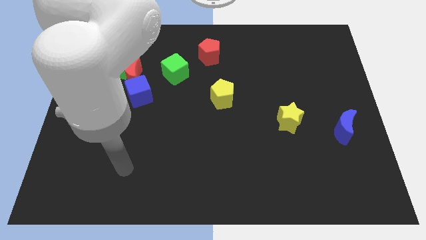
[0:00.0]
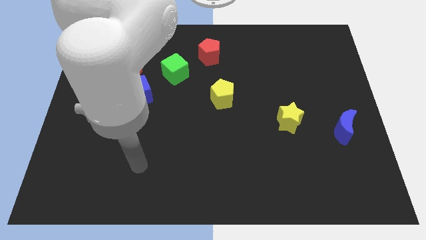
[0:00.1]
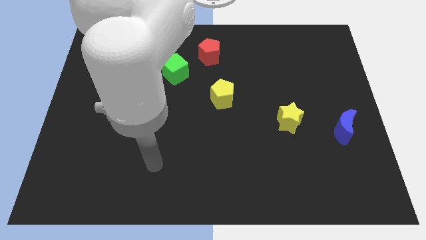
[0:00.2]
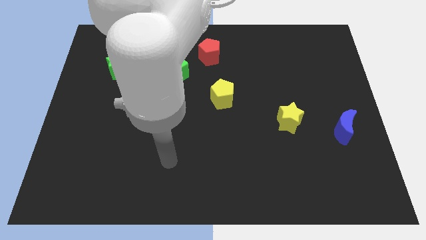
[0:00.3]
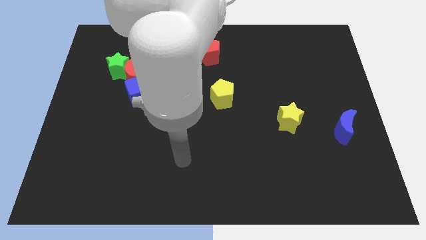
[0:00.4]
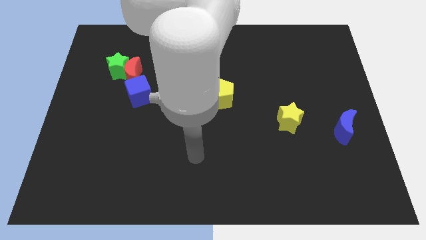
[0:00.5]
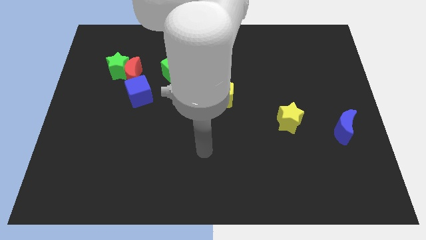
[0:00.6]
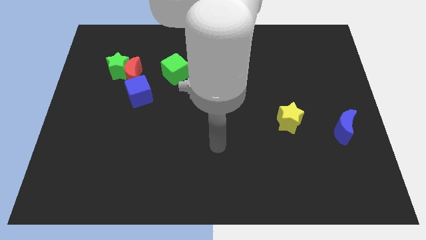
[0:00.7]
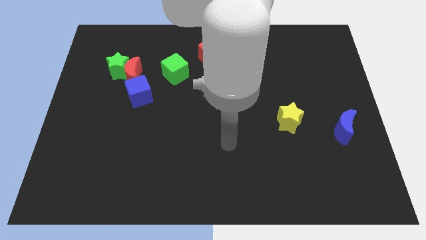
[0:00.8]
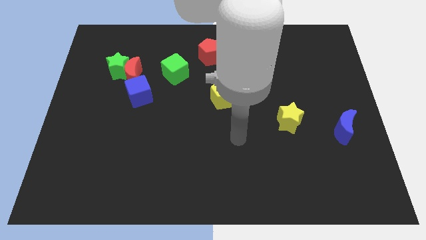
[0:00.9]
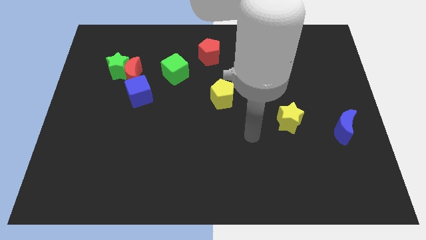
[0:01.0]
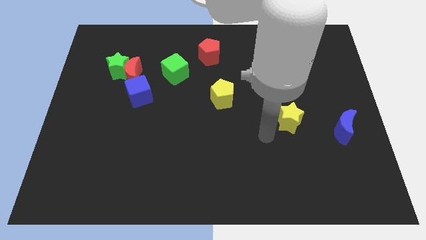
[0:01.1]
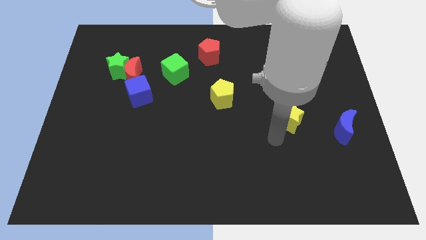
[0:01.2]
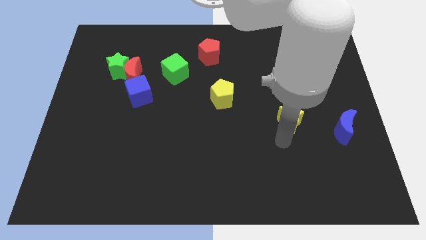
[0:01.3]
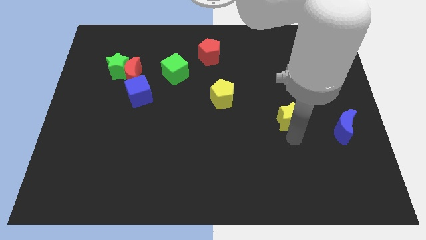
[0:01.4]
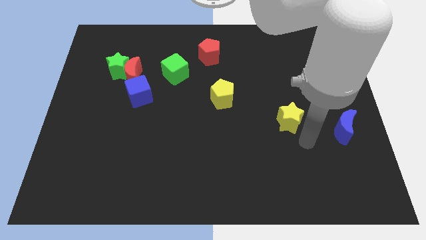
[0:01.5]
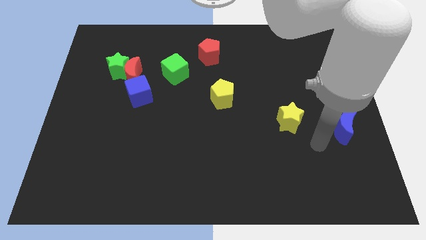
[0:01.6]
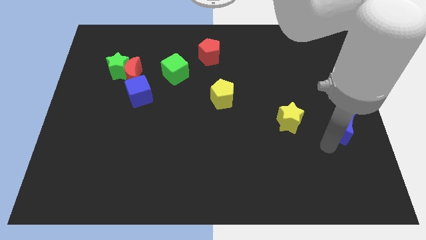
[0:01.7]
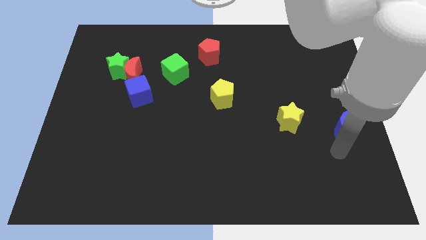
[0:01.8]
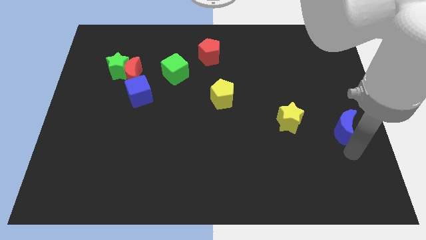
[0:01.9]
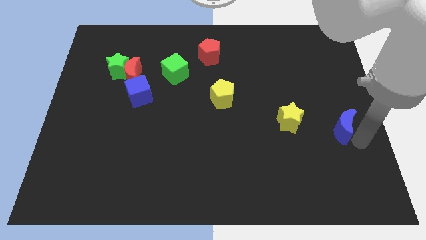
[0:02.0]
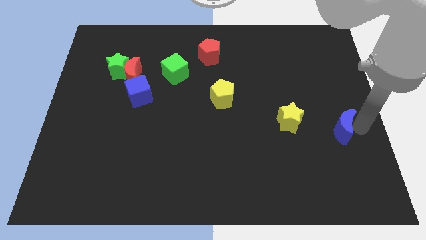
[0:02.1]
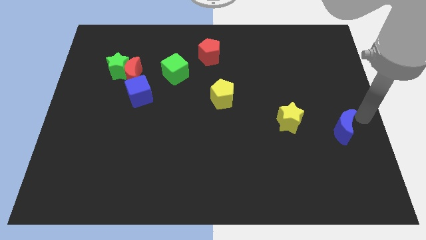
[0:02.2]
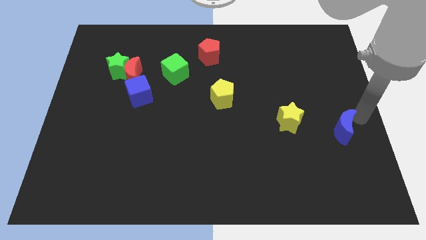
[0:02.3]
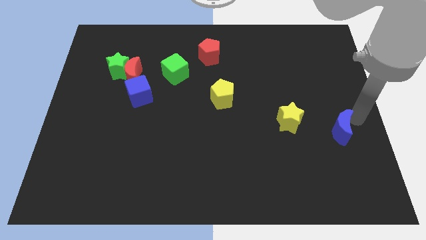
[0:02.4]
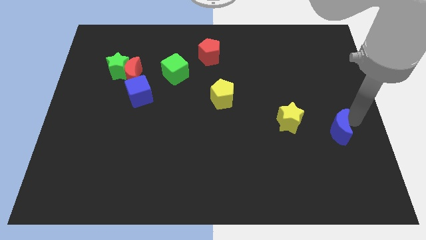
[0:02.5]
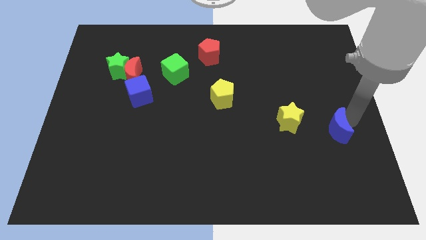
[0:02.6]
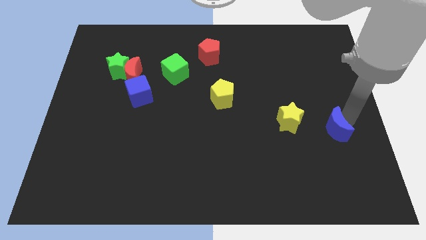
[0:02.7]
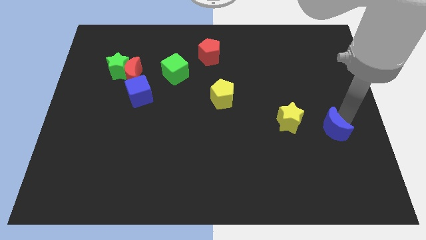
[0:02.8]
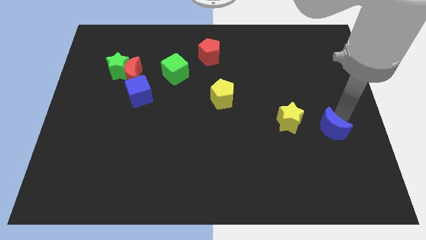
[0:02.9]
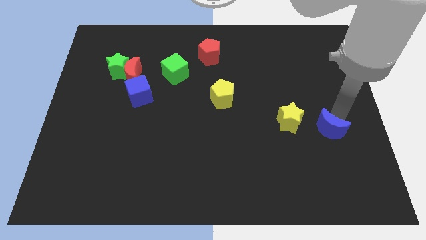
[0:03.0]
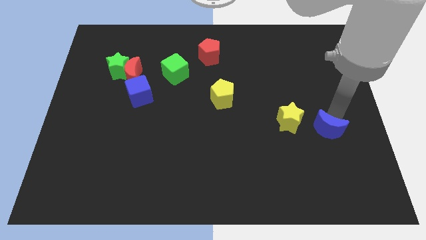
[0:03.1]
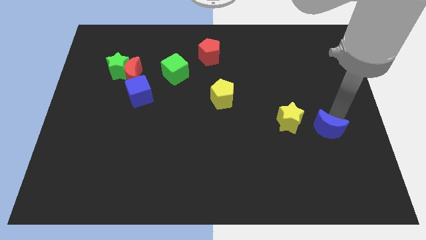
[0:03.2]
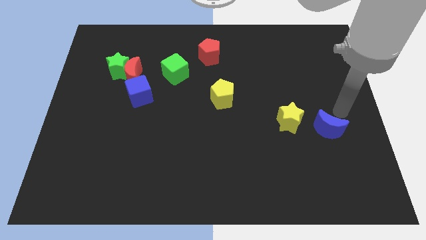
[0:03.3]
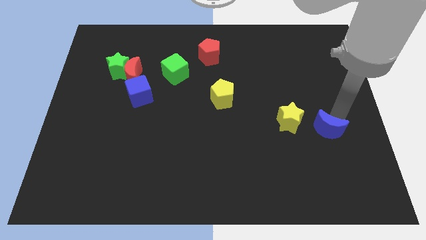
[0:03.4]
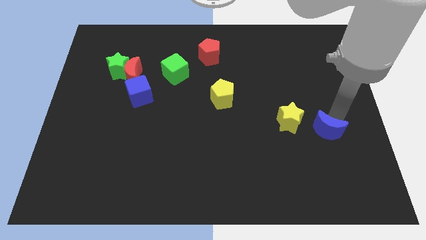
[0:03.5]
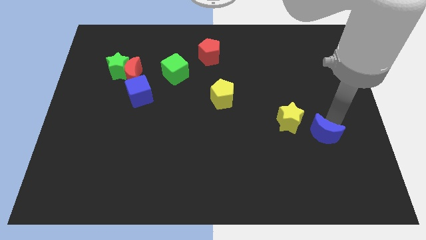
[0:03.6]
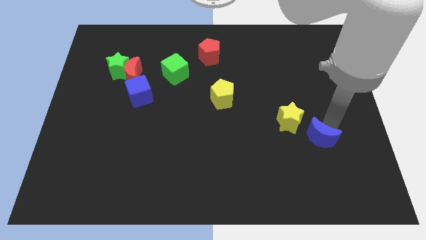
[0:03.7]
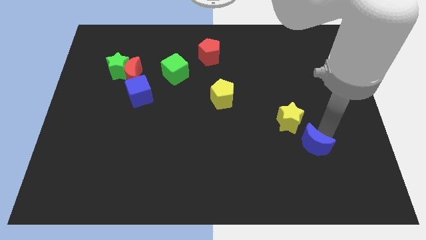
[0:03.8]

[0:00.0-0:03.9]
move the blue moon below the yellow star

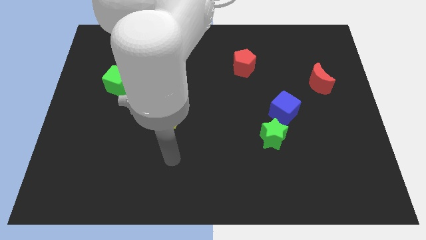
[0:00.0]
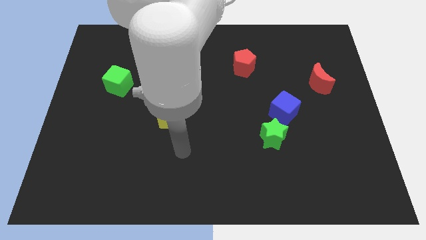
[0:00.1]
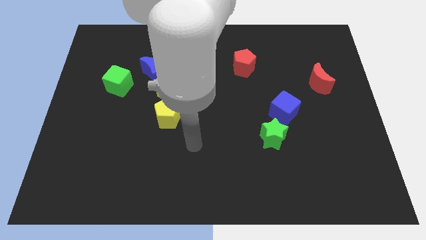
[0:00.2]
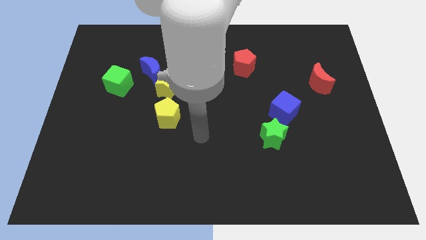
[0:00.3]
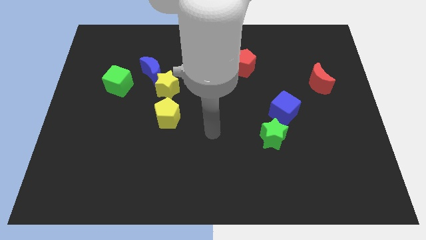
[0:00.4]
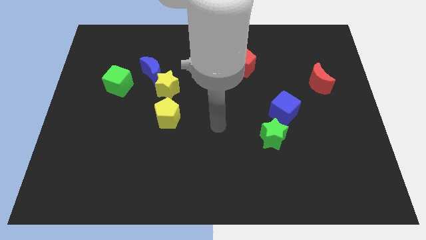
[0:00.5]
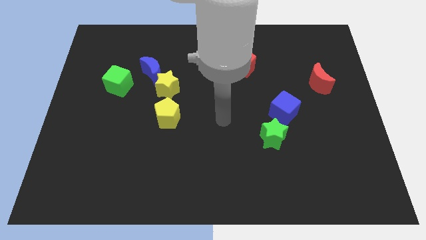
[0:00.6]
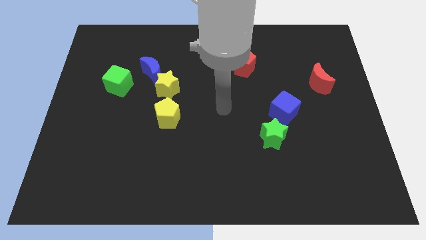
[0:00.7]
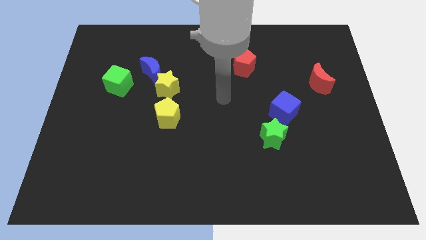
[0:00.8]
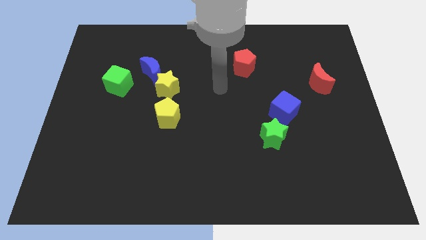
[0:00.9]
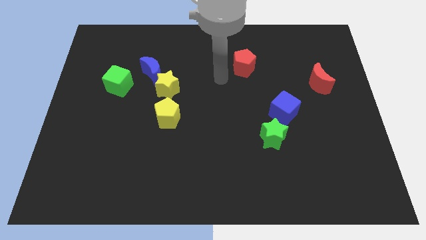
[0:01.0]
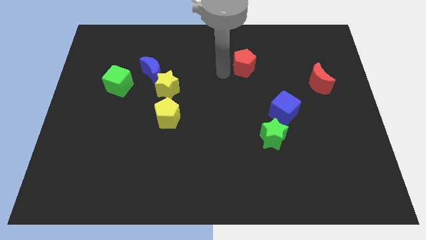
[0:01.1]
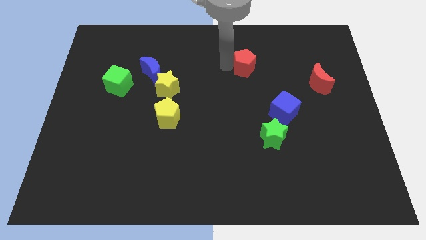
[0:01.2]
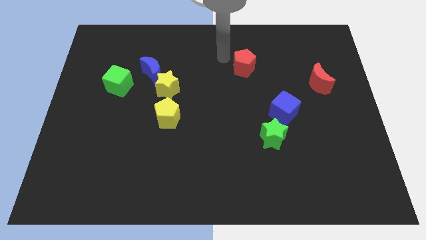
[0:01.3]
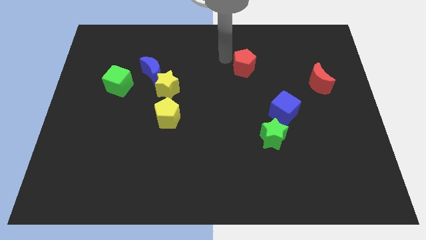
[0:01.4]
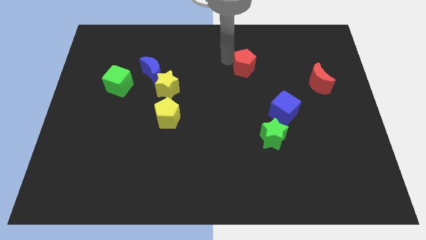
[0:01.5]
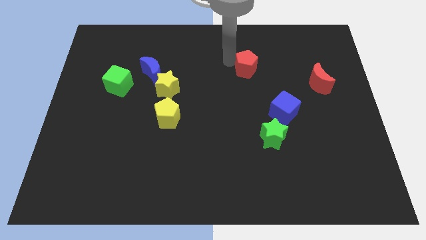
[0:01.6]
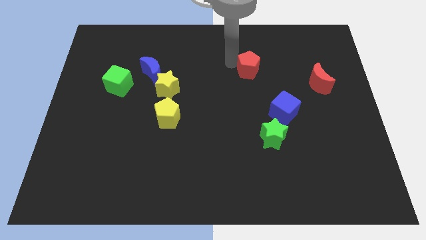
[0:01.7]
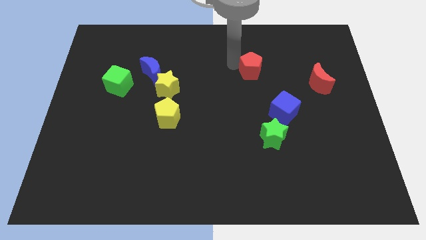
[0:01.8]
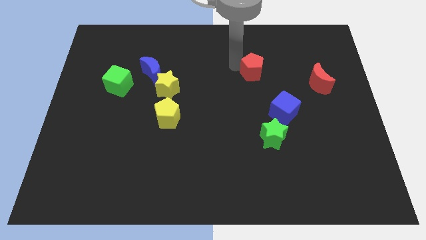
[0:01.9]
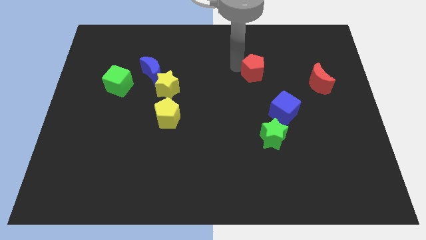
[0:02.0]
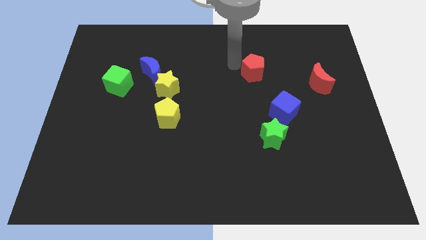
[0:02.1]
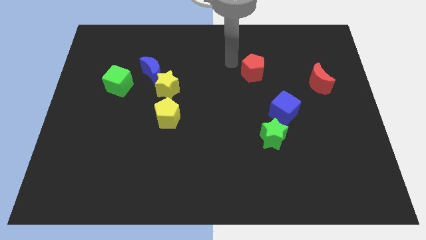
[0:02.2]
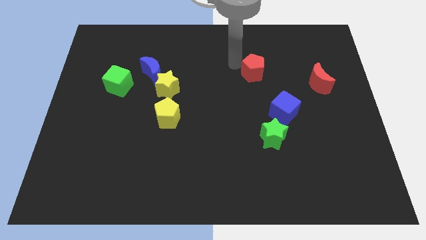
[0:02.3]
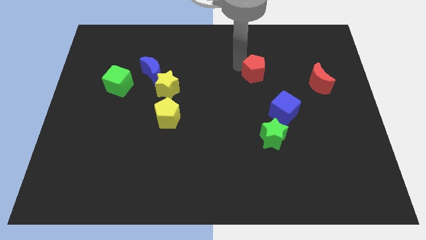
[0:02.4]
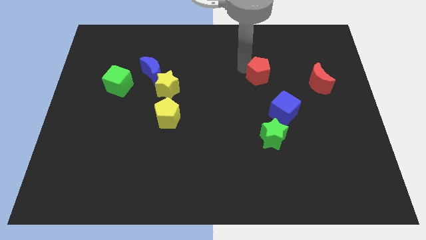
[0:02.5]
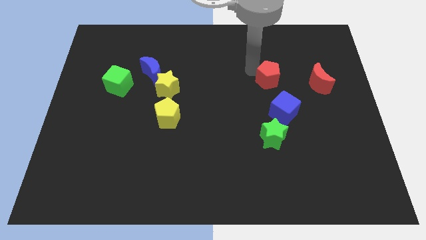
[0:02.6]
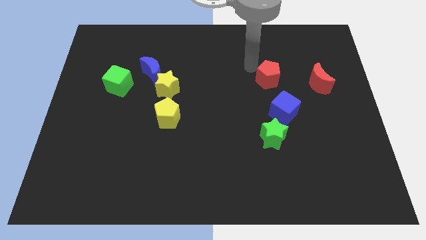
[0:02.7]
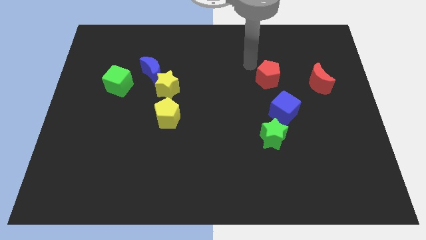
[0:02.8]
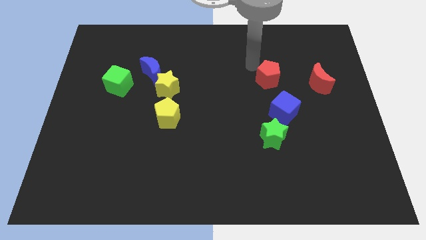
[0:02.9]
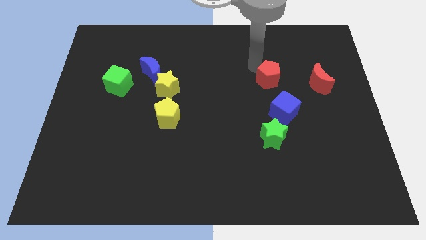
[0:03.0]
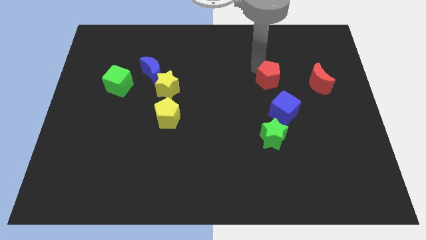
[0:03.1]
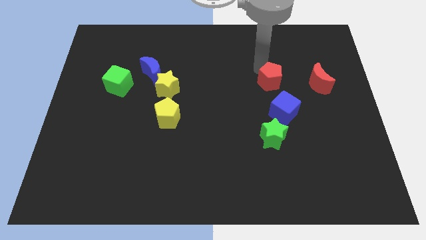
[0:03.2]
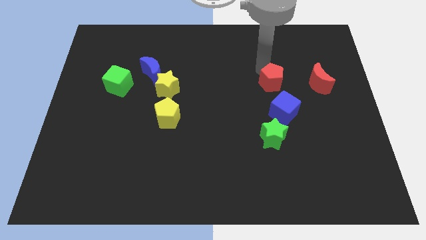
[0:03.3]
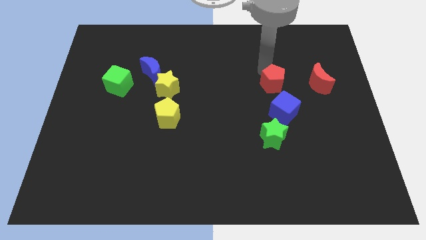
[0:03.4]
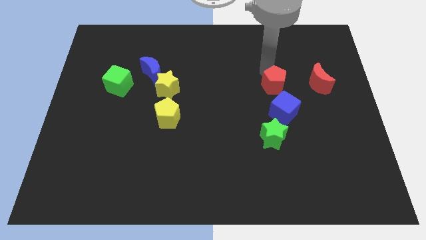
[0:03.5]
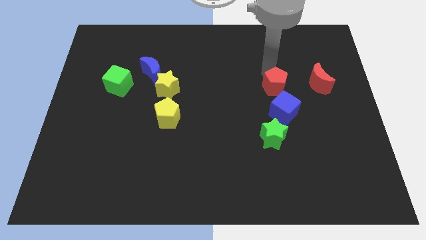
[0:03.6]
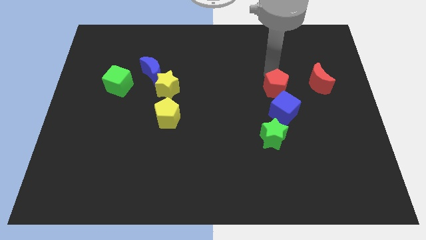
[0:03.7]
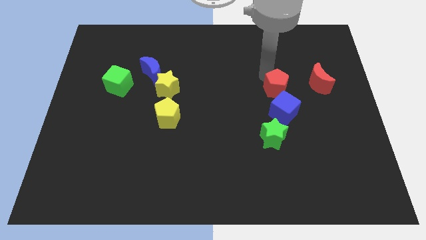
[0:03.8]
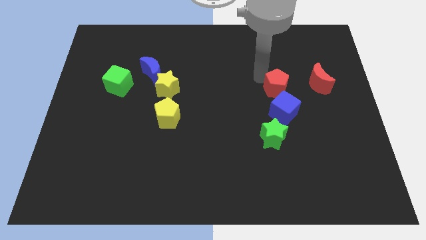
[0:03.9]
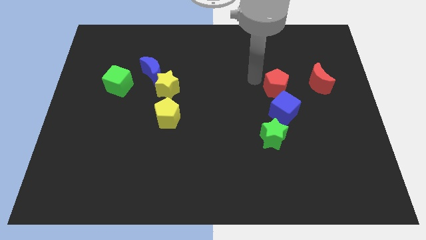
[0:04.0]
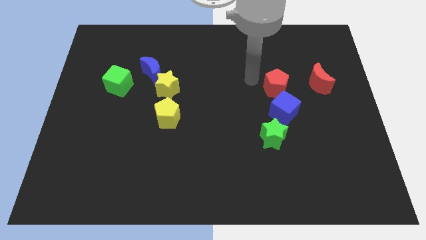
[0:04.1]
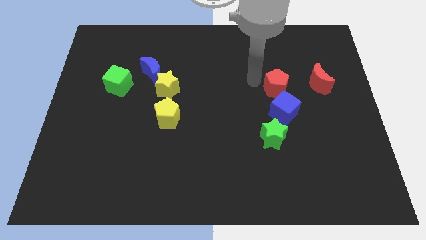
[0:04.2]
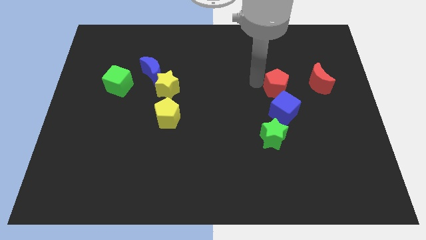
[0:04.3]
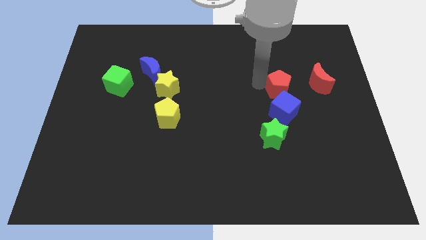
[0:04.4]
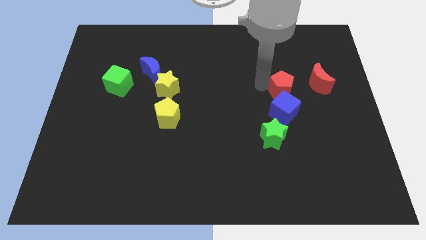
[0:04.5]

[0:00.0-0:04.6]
move the red pentagon to the top right of the blue cube
